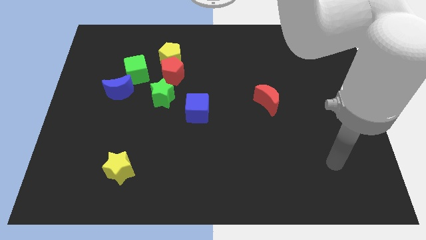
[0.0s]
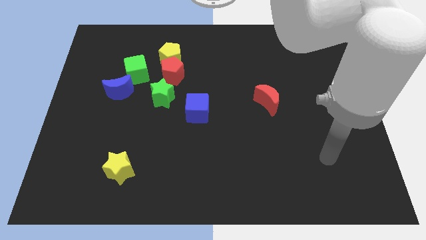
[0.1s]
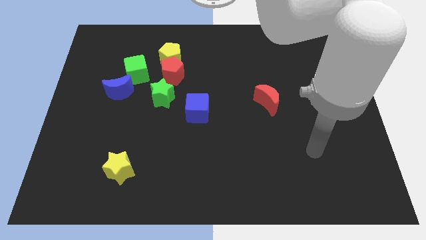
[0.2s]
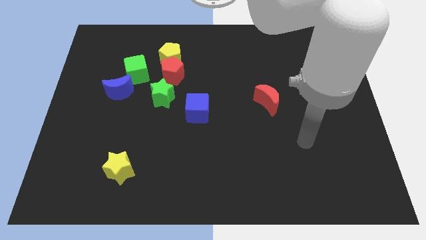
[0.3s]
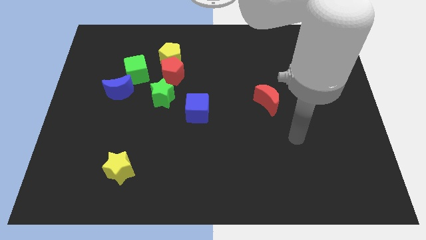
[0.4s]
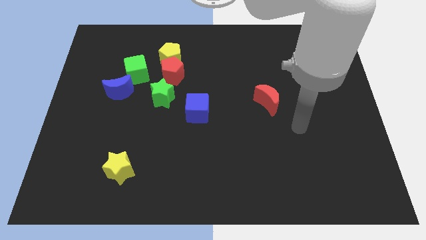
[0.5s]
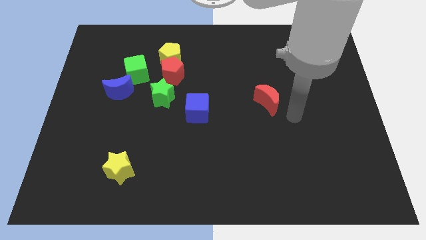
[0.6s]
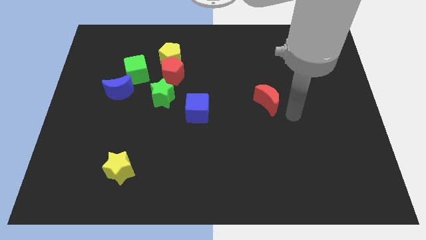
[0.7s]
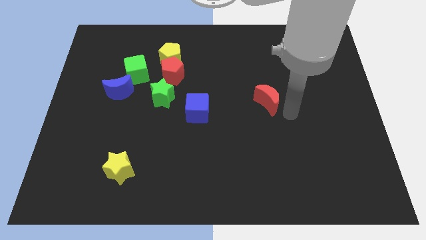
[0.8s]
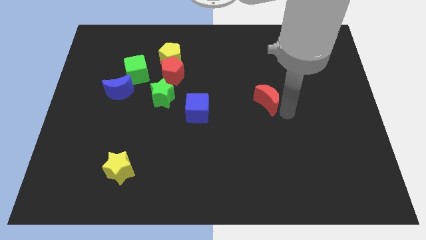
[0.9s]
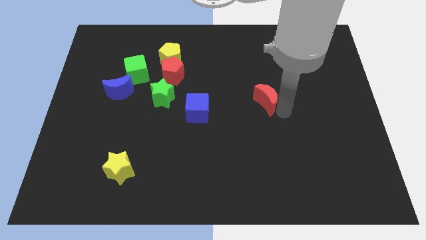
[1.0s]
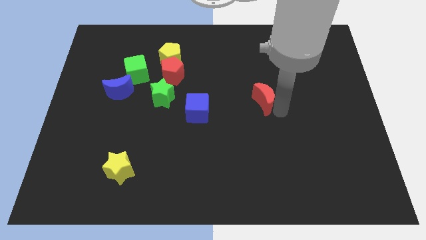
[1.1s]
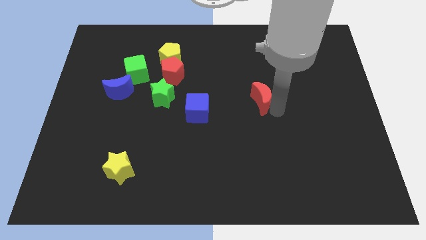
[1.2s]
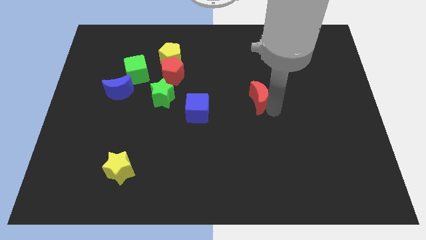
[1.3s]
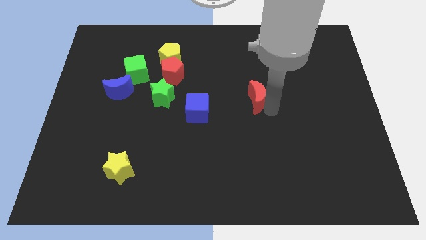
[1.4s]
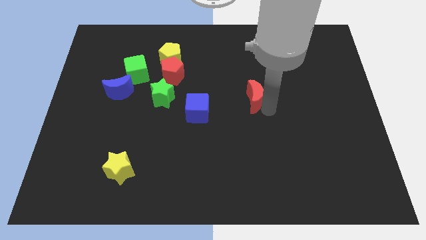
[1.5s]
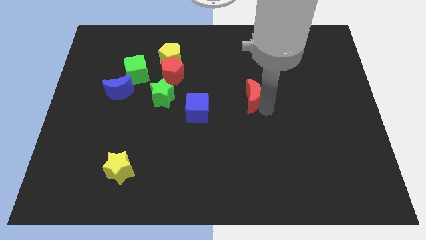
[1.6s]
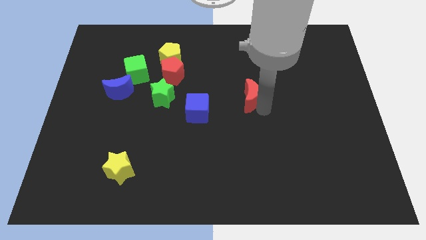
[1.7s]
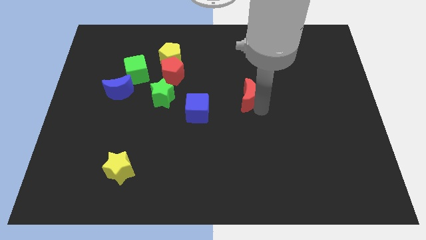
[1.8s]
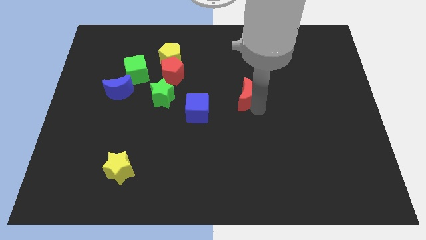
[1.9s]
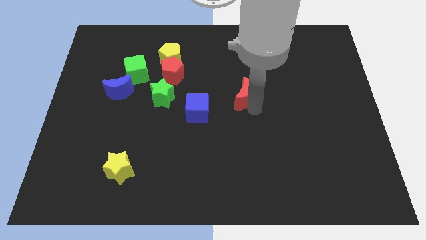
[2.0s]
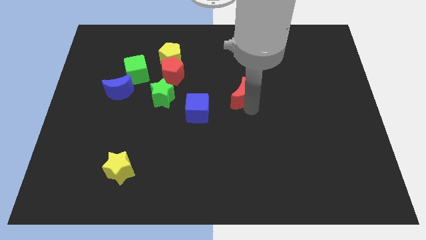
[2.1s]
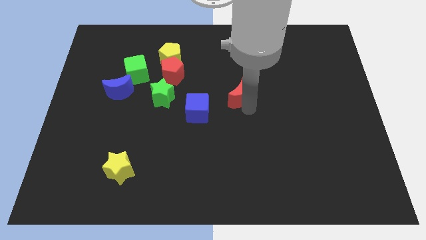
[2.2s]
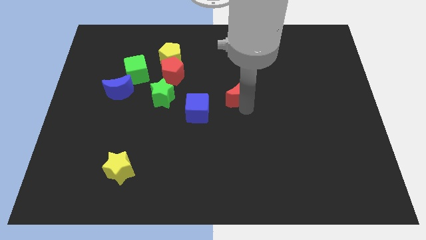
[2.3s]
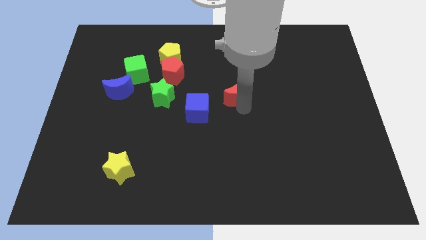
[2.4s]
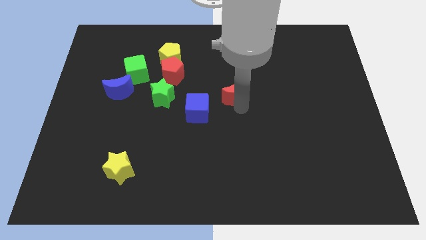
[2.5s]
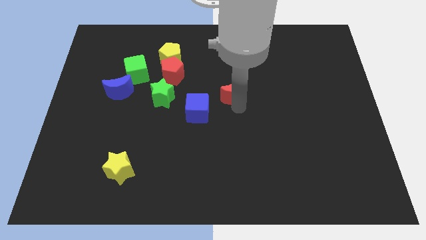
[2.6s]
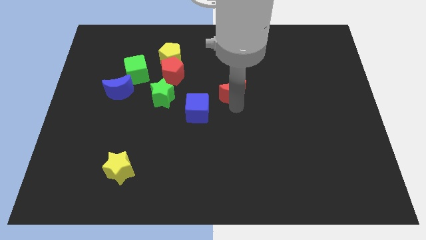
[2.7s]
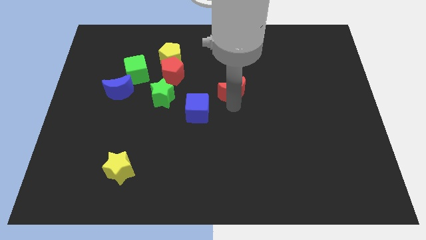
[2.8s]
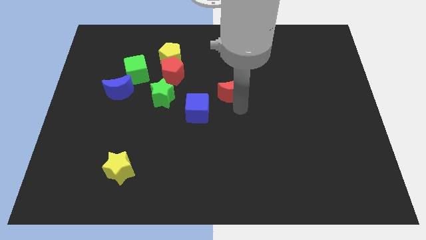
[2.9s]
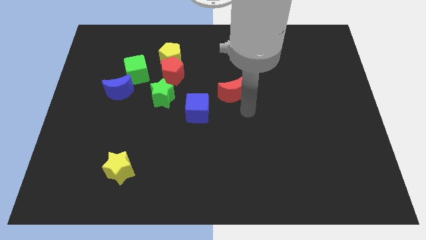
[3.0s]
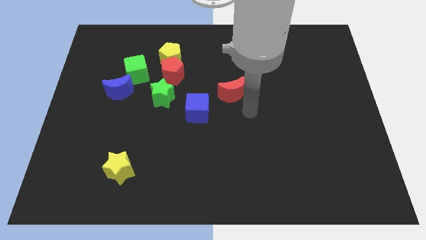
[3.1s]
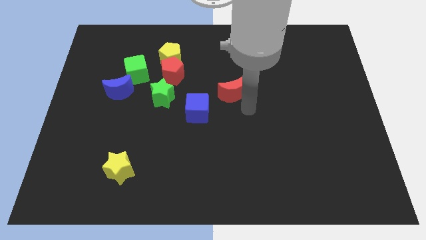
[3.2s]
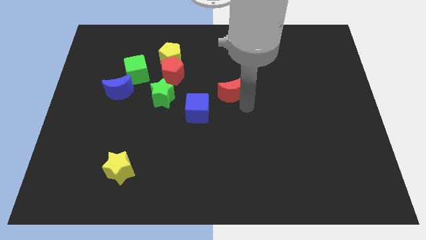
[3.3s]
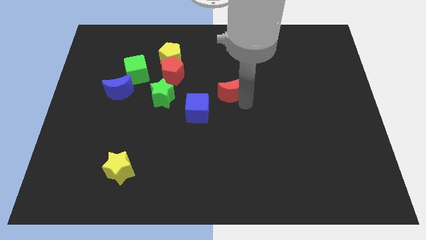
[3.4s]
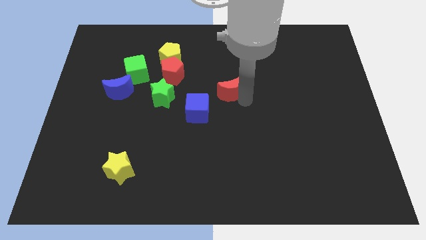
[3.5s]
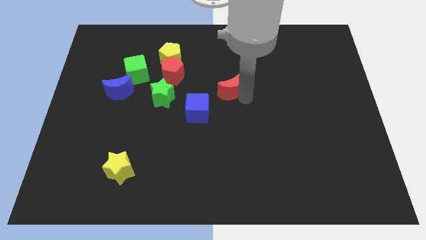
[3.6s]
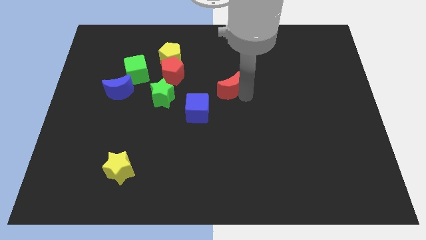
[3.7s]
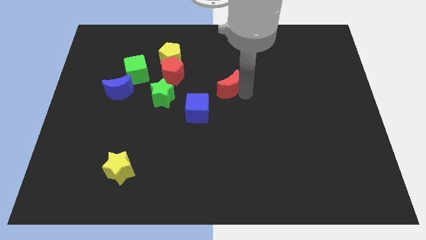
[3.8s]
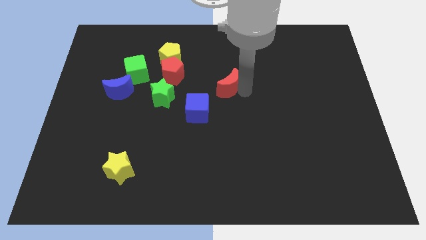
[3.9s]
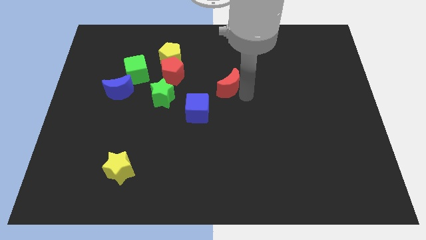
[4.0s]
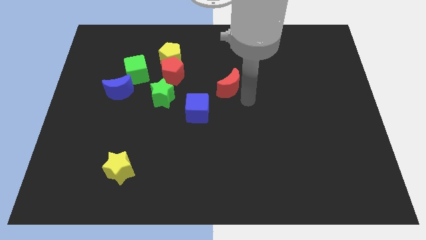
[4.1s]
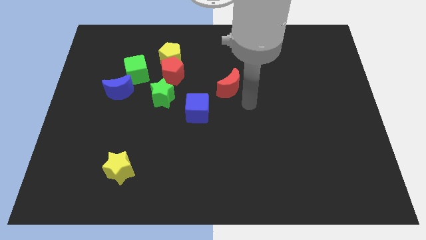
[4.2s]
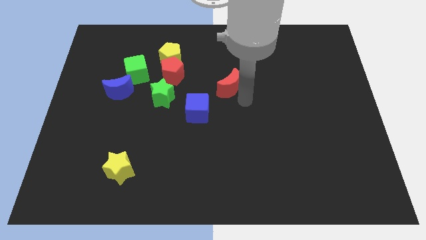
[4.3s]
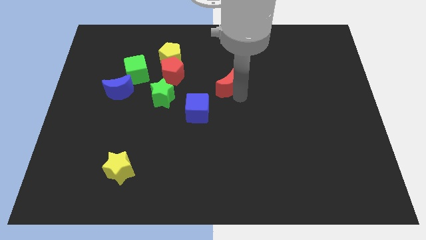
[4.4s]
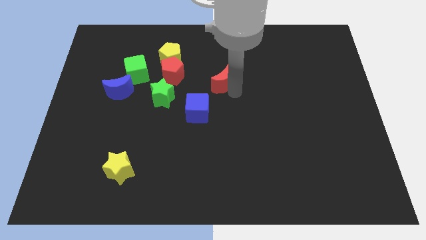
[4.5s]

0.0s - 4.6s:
move the red moon just right of the red pentagon

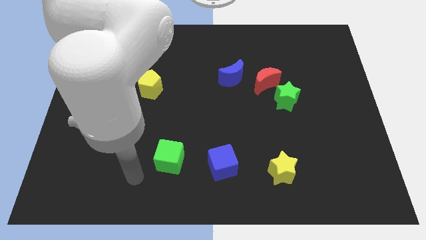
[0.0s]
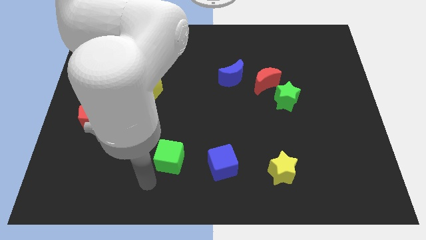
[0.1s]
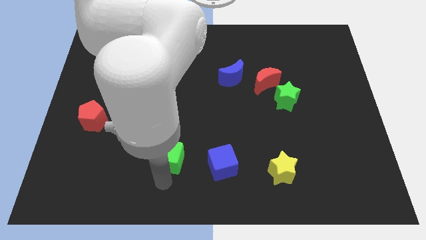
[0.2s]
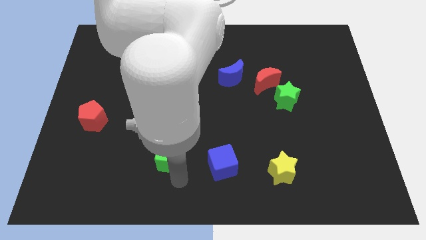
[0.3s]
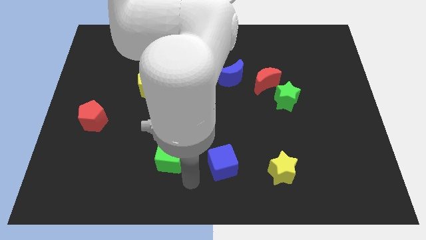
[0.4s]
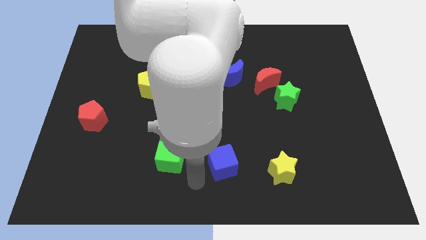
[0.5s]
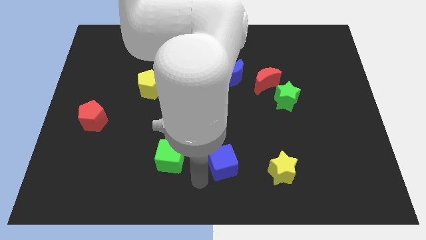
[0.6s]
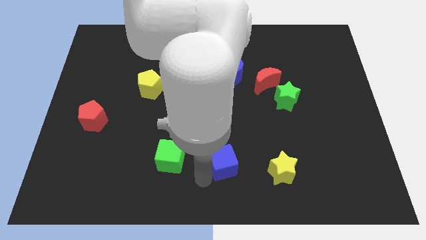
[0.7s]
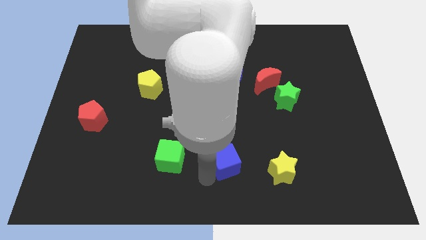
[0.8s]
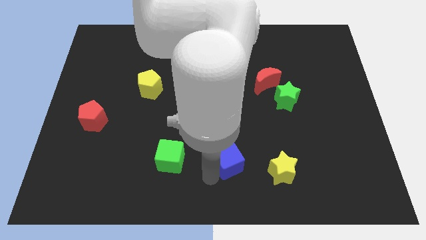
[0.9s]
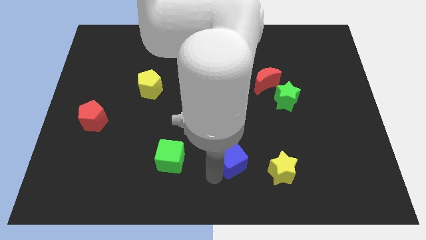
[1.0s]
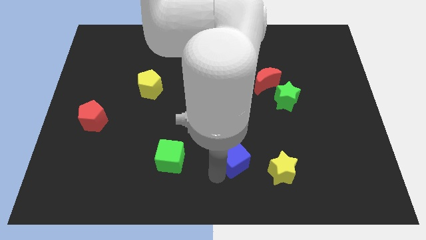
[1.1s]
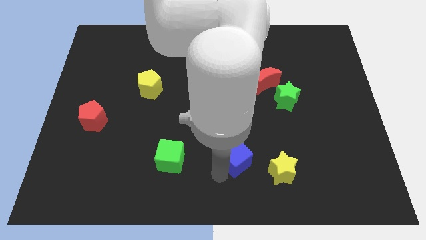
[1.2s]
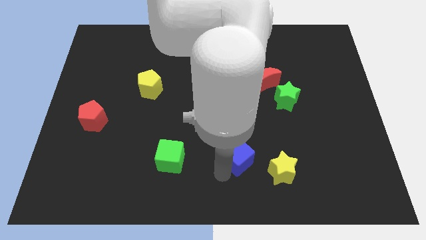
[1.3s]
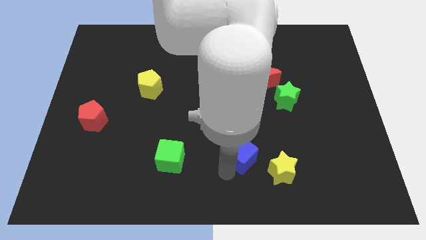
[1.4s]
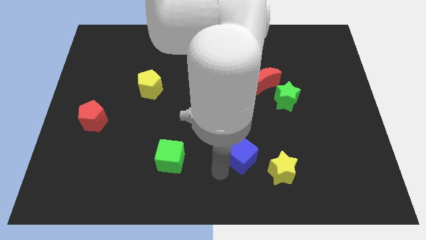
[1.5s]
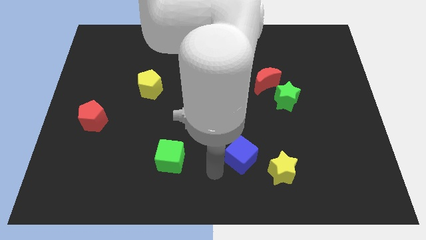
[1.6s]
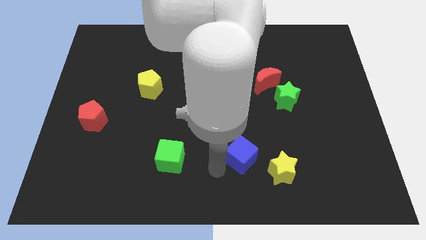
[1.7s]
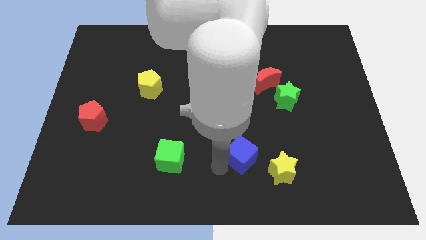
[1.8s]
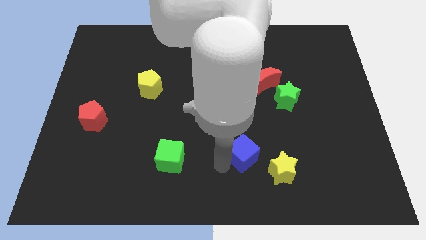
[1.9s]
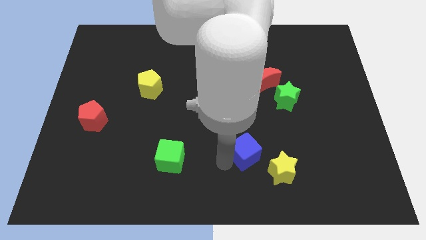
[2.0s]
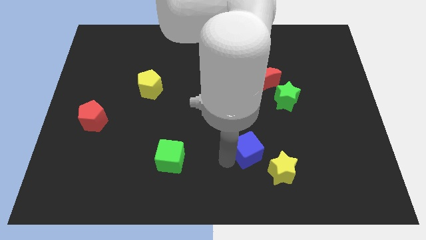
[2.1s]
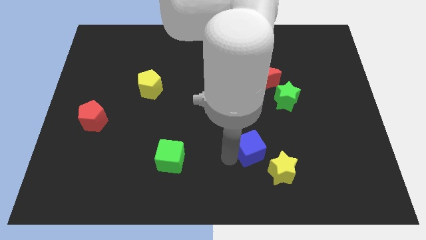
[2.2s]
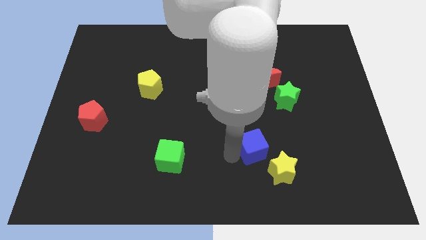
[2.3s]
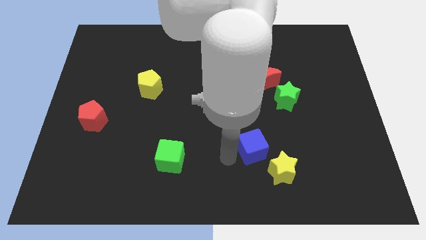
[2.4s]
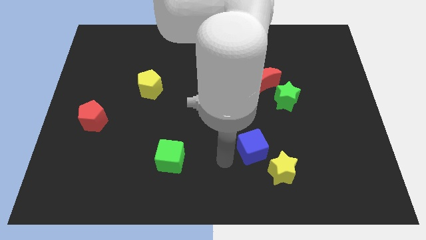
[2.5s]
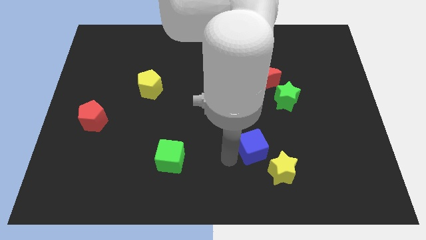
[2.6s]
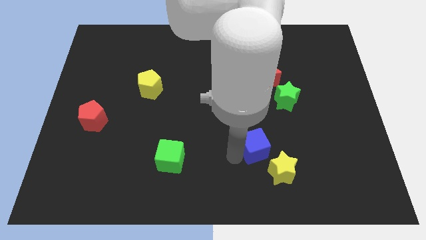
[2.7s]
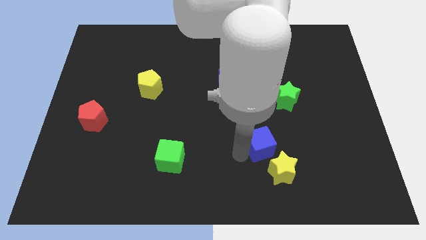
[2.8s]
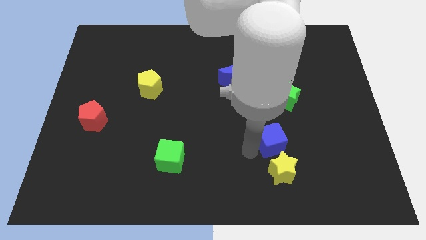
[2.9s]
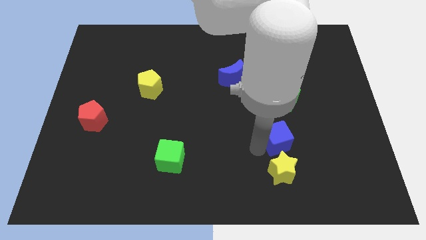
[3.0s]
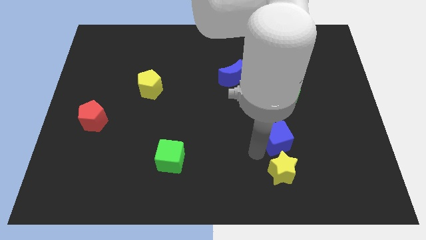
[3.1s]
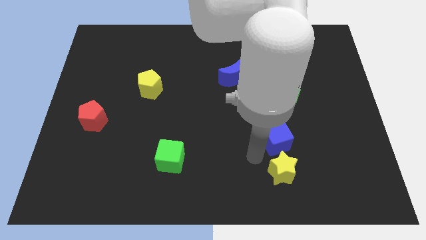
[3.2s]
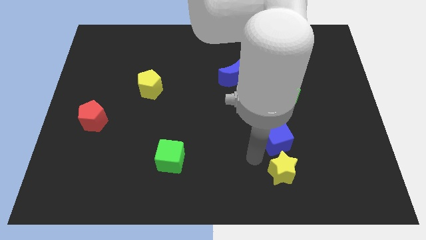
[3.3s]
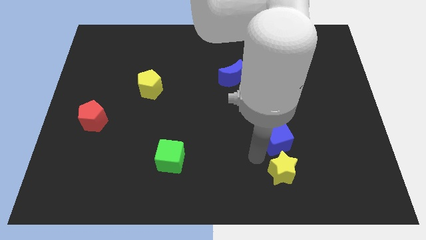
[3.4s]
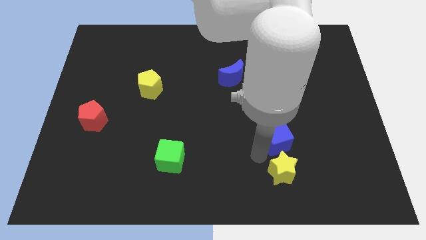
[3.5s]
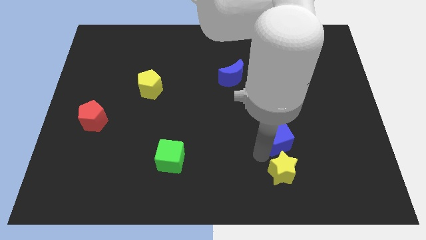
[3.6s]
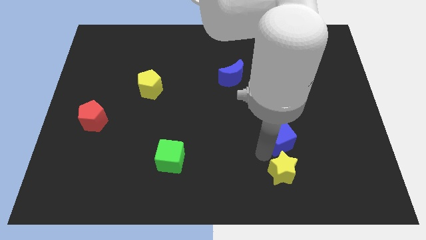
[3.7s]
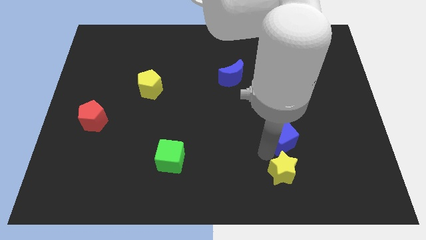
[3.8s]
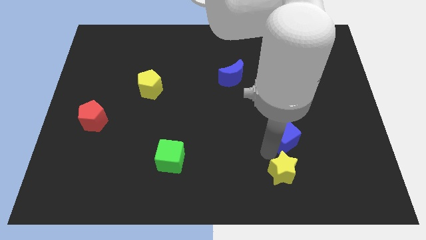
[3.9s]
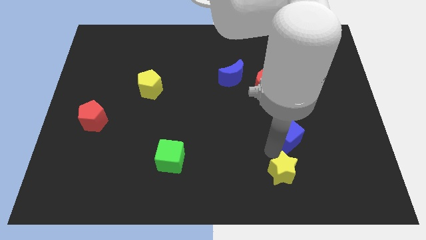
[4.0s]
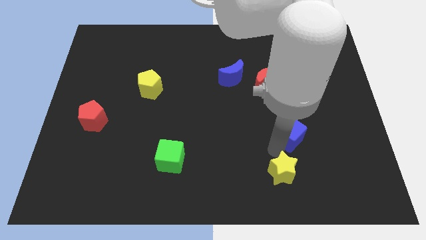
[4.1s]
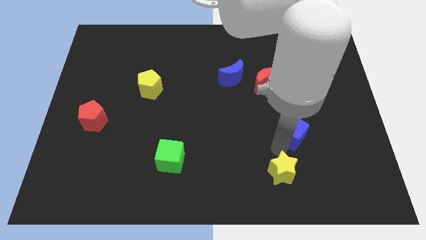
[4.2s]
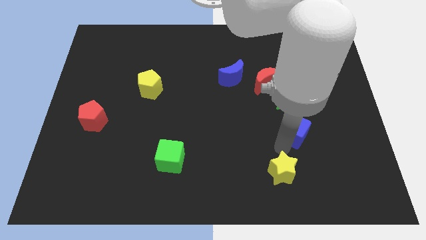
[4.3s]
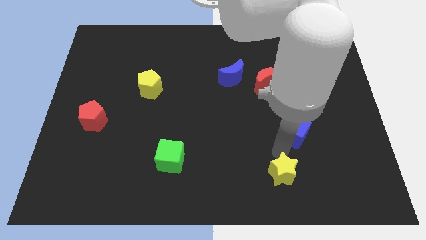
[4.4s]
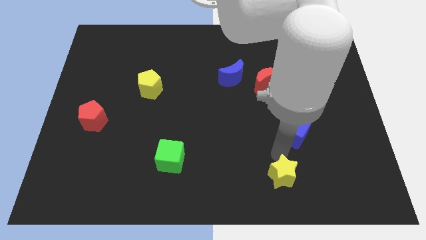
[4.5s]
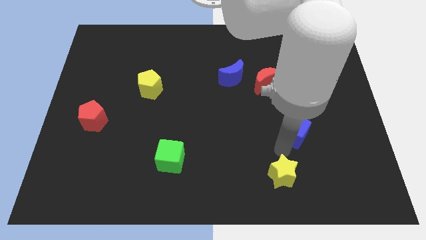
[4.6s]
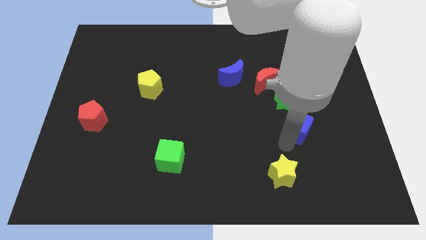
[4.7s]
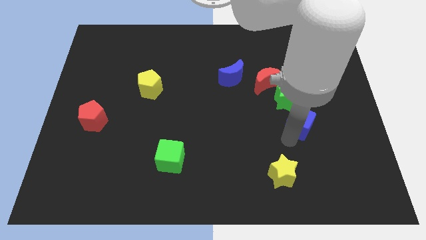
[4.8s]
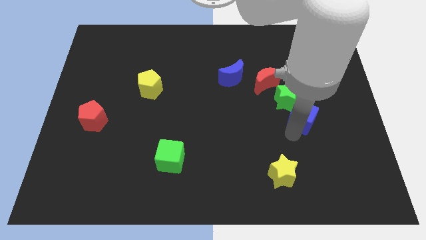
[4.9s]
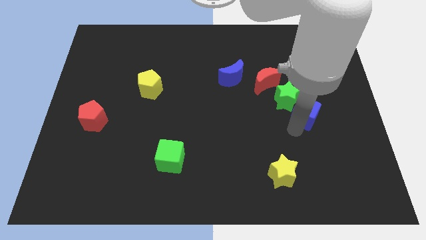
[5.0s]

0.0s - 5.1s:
move the blue cube just right of the green star
